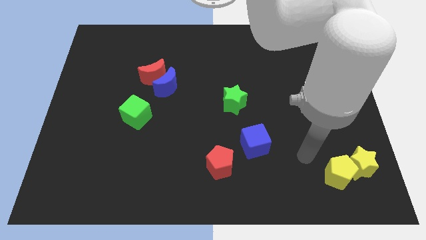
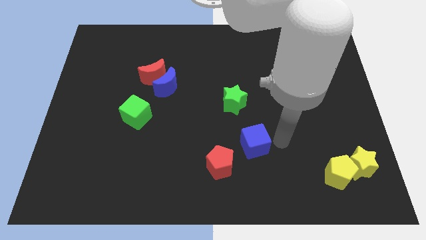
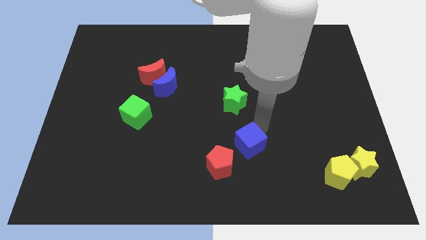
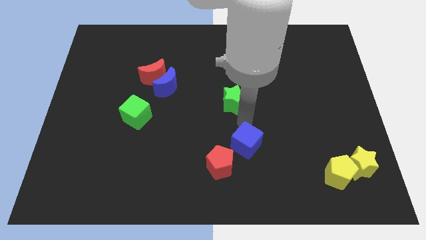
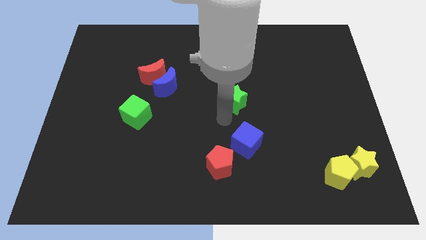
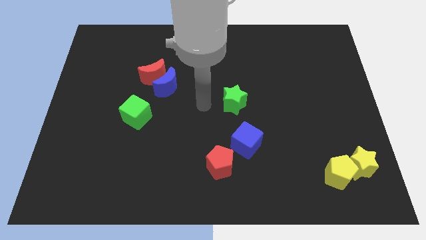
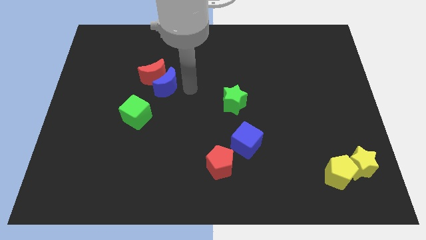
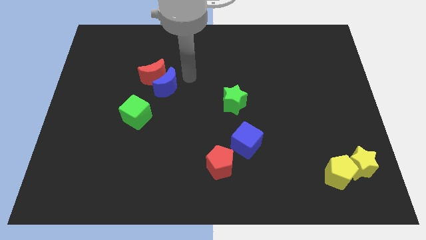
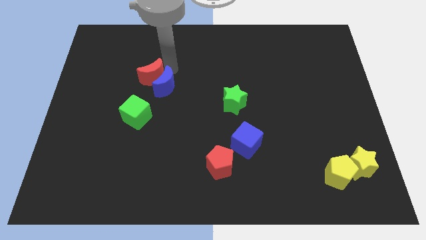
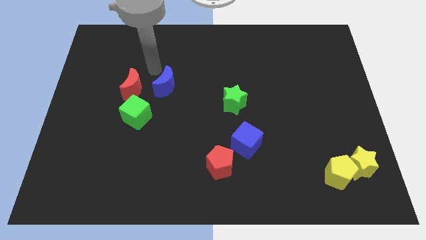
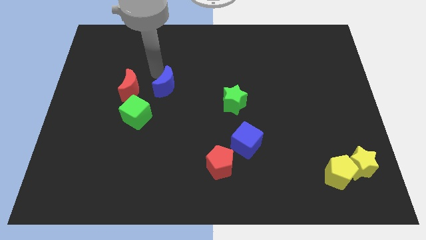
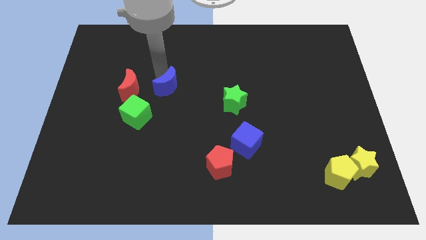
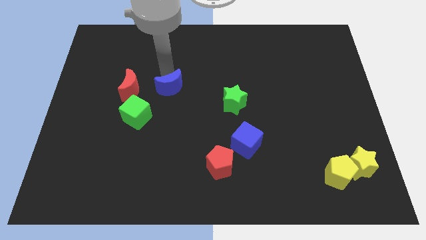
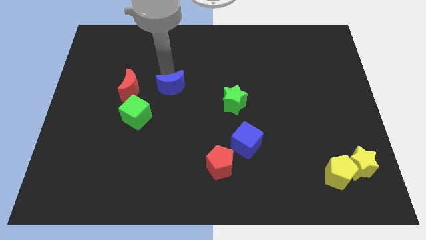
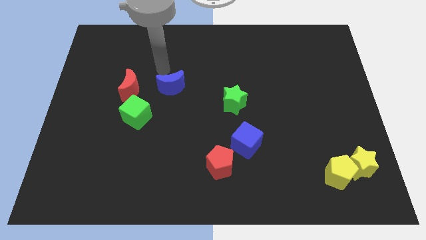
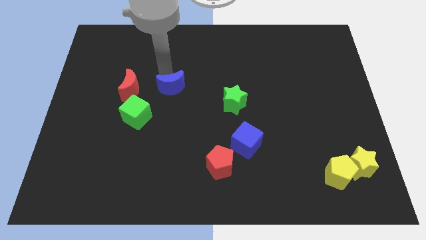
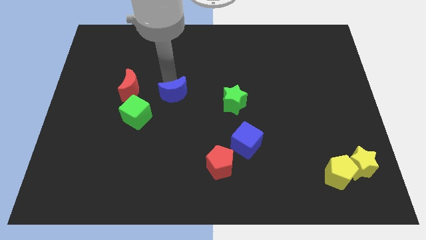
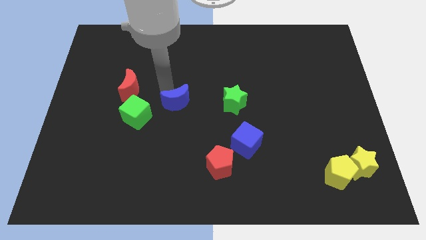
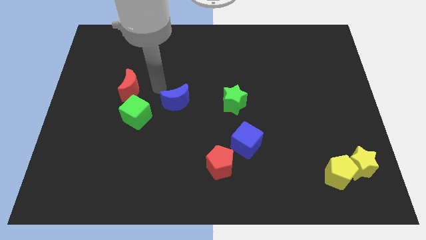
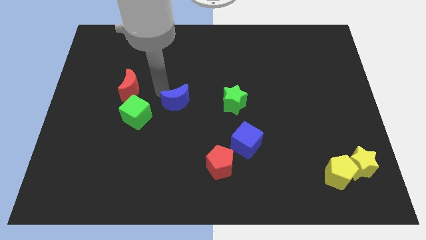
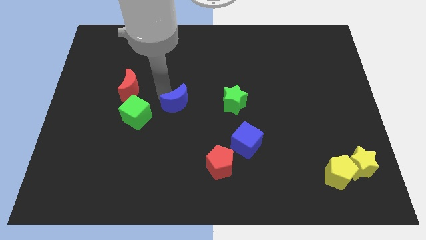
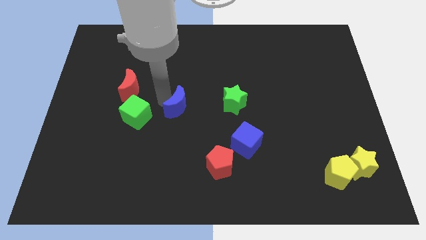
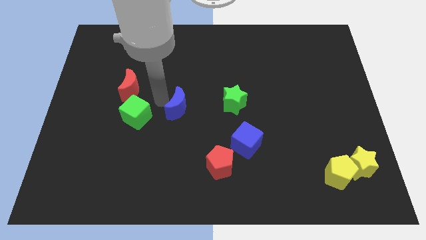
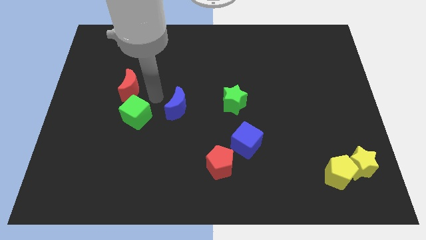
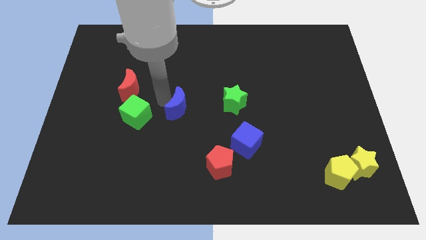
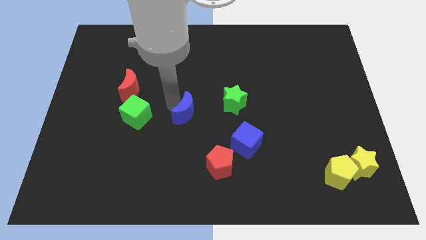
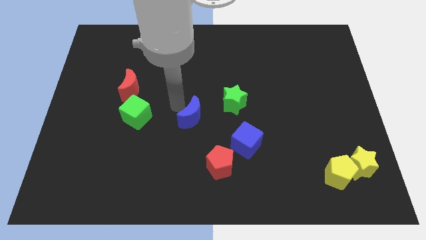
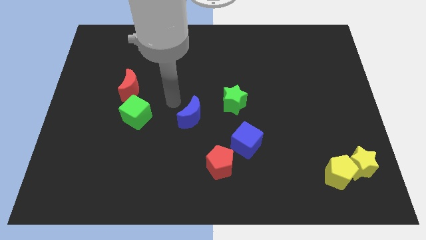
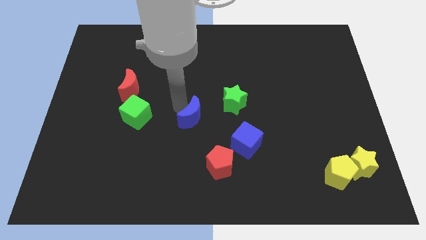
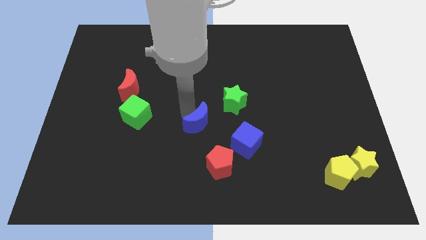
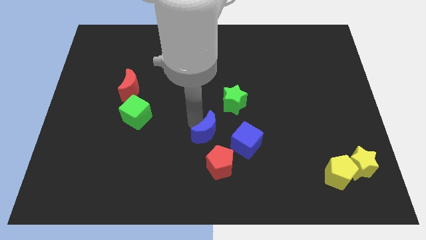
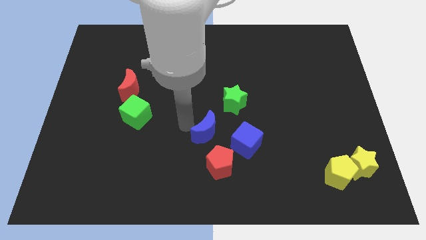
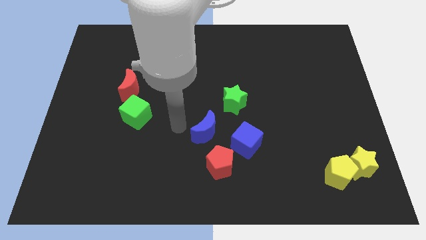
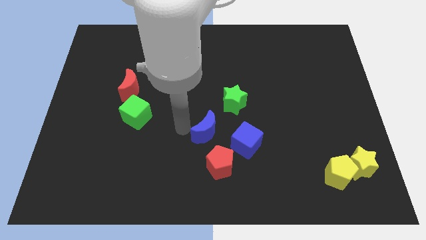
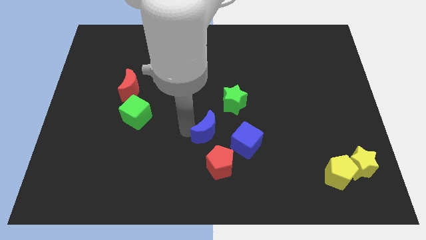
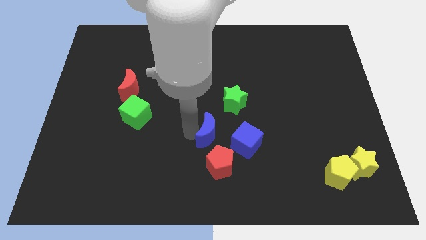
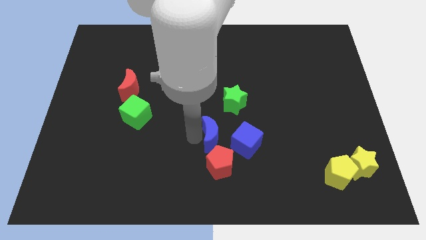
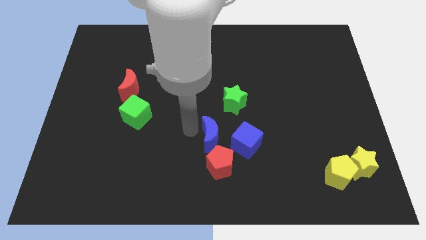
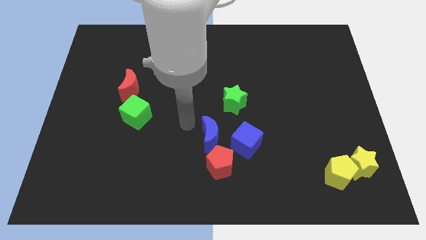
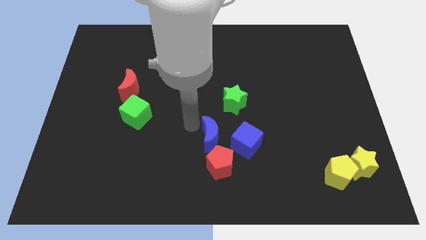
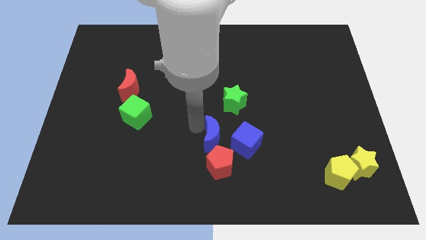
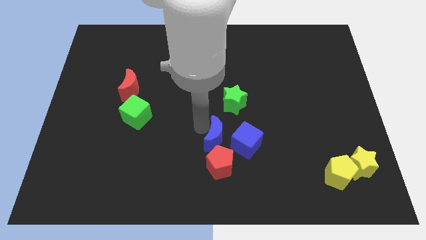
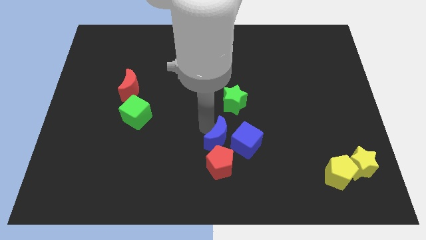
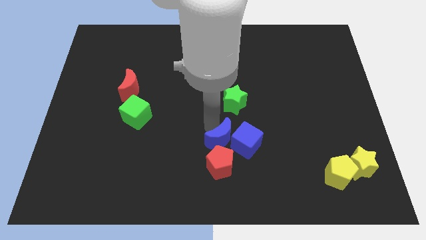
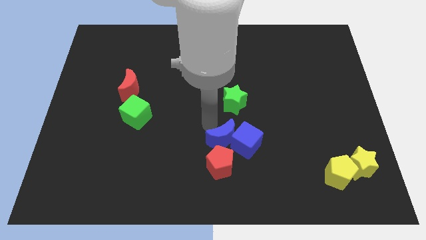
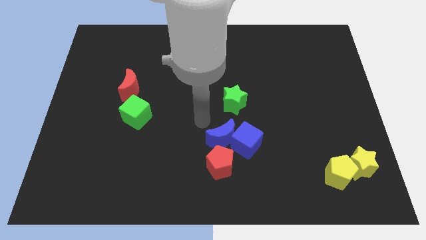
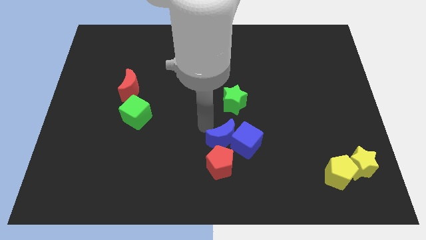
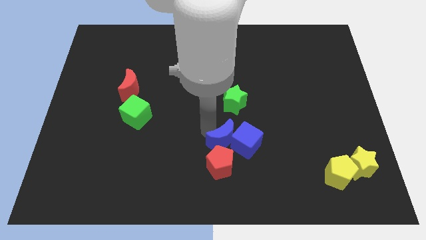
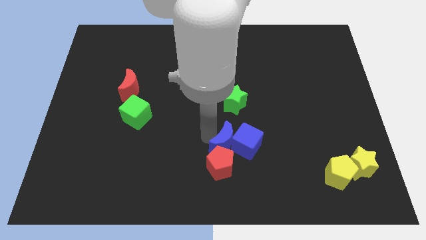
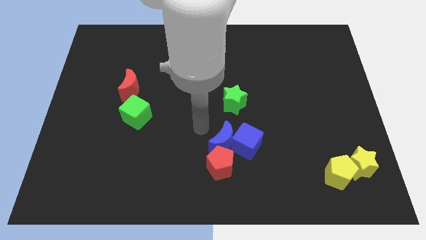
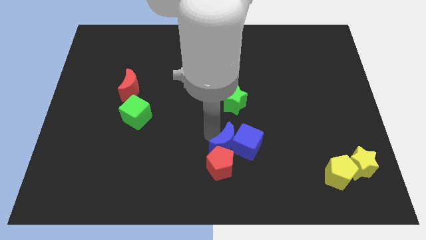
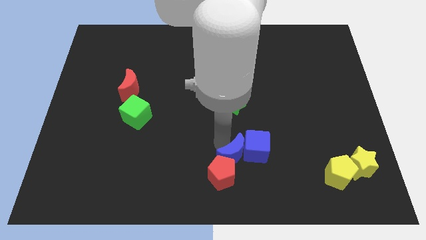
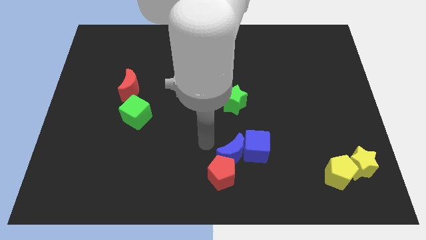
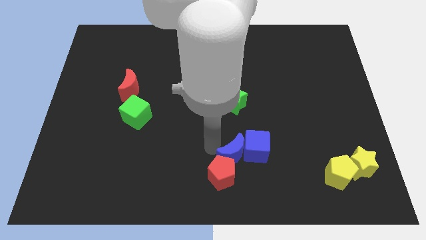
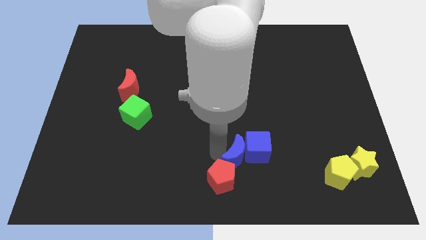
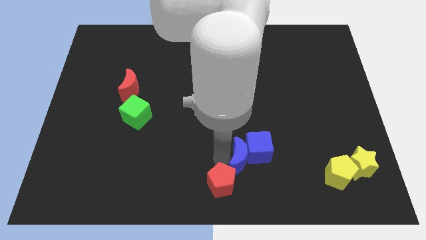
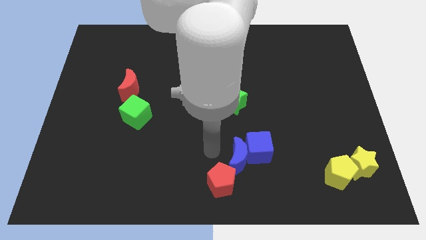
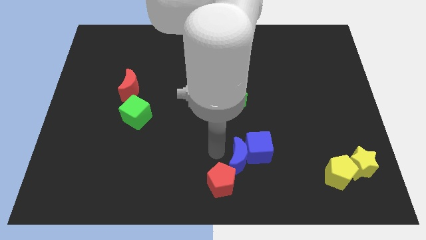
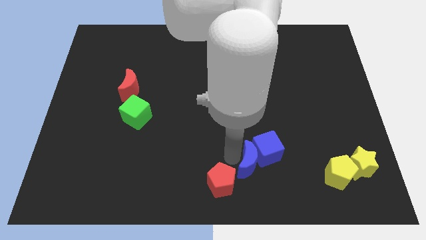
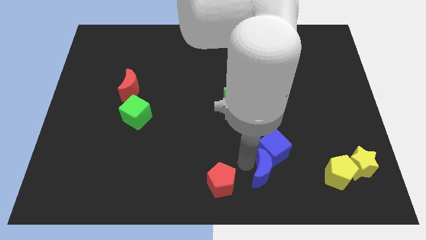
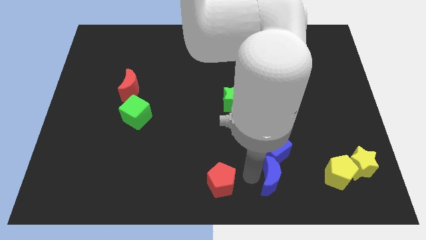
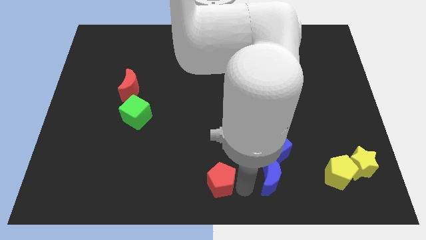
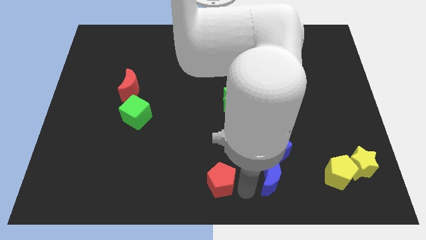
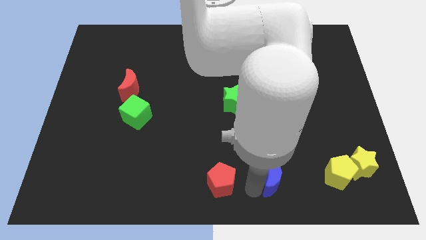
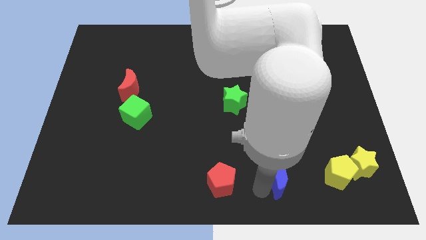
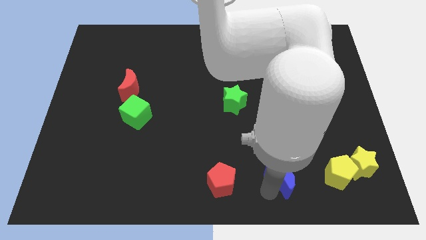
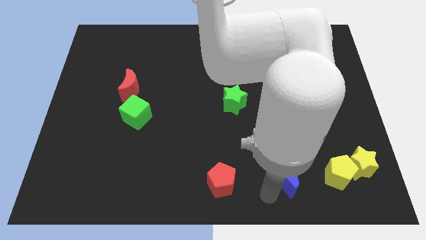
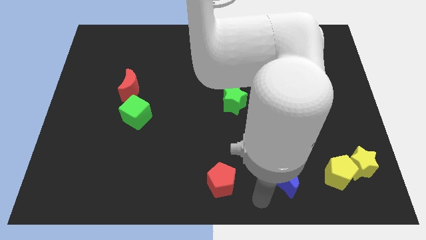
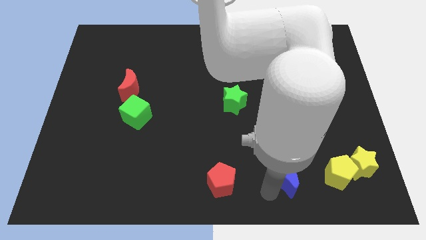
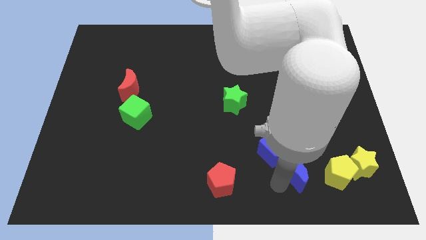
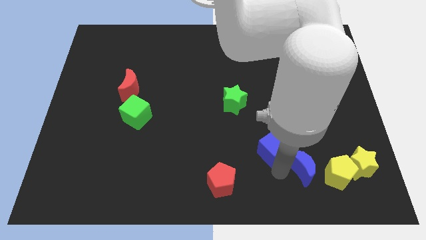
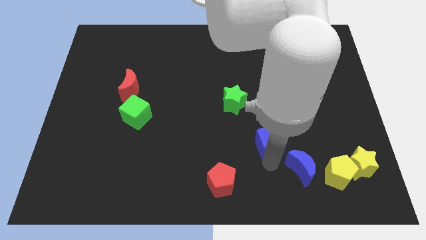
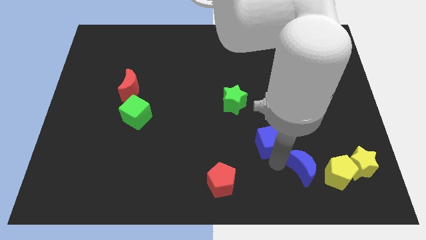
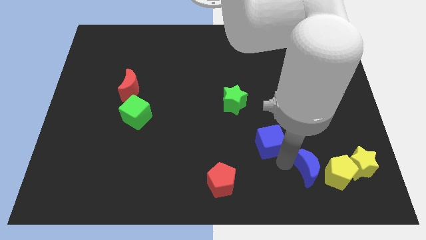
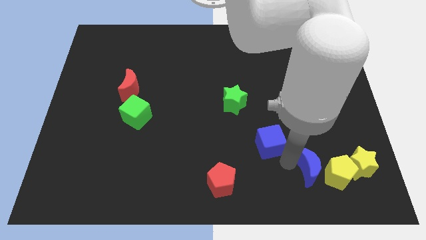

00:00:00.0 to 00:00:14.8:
push the blue moon close to the yellow pentagon
